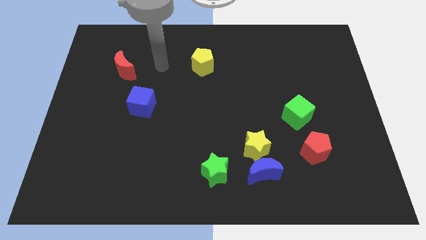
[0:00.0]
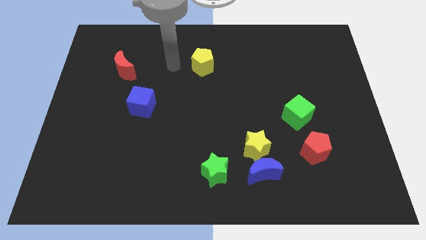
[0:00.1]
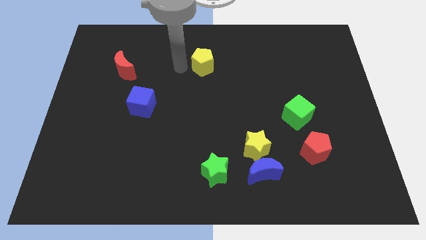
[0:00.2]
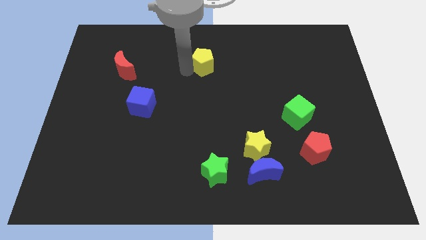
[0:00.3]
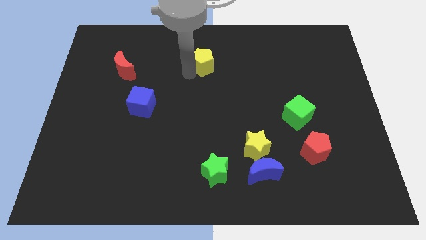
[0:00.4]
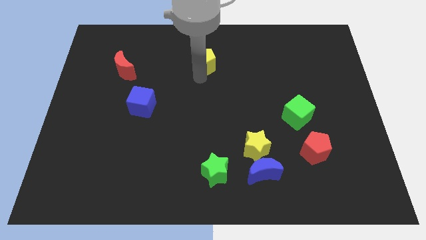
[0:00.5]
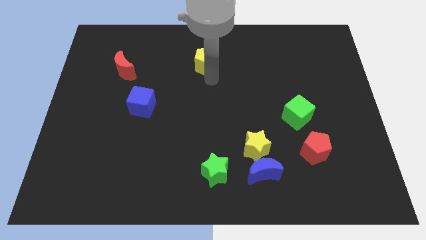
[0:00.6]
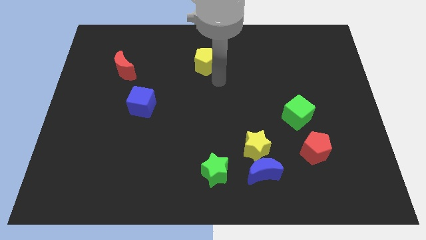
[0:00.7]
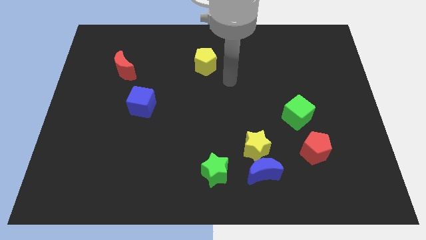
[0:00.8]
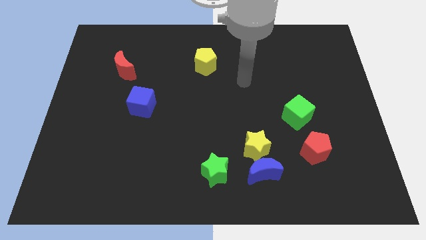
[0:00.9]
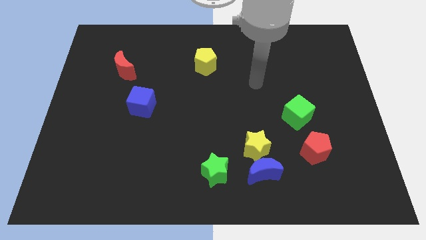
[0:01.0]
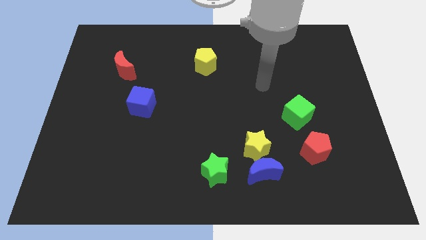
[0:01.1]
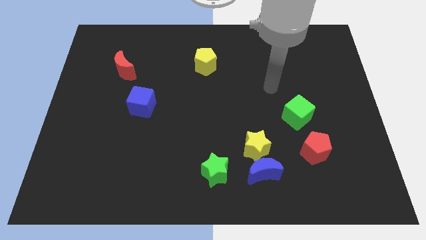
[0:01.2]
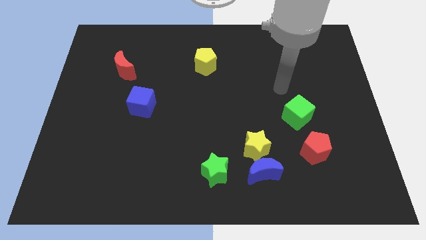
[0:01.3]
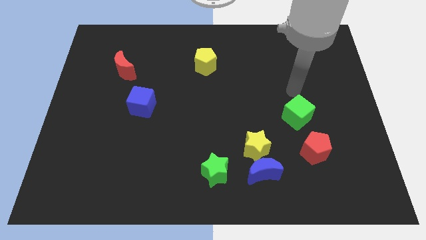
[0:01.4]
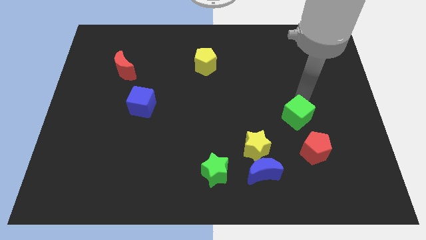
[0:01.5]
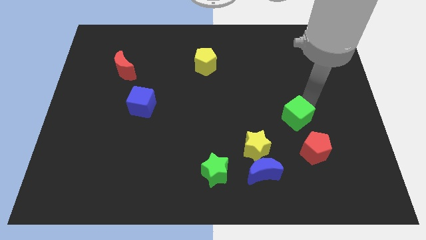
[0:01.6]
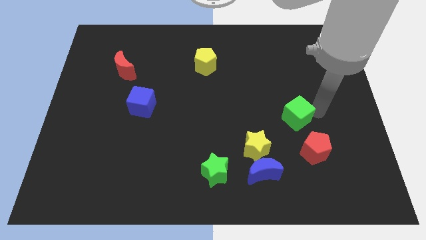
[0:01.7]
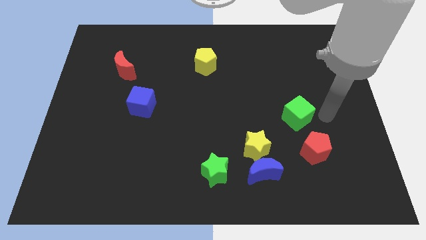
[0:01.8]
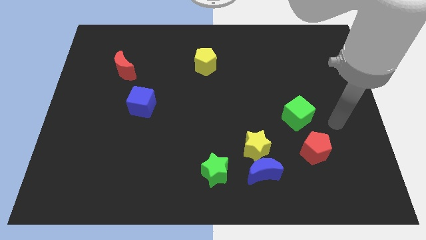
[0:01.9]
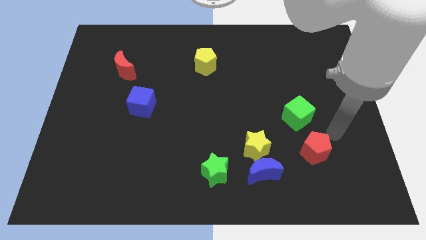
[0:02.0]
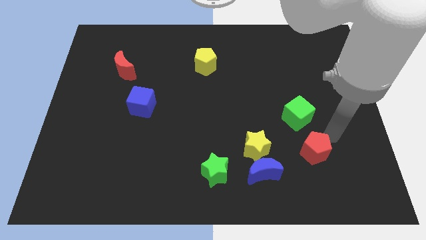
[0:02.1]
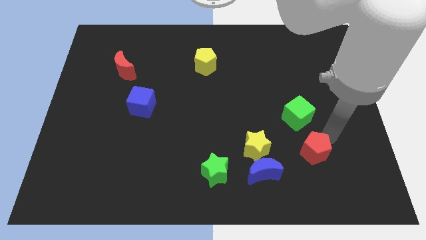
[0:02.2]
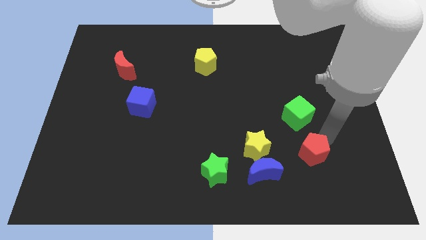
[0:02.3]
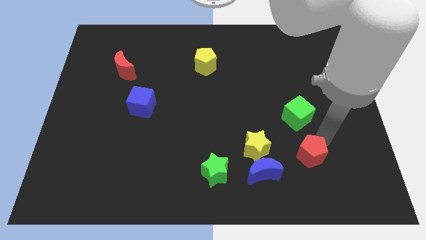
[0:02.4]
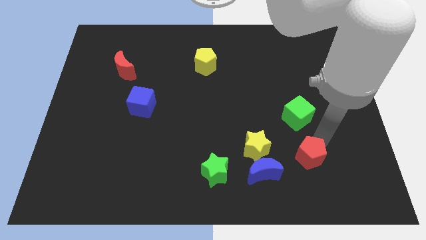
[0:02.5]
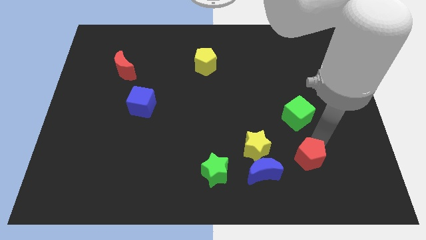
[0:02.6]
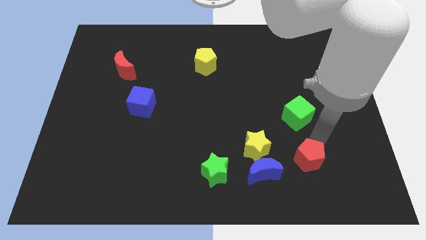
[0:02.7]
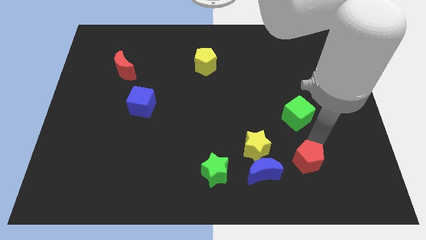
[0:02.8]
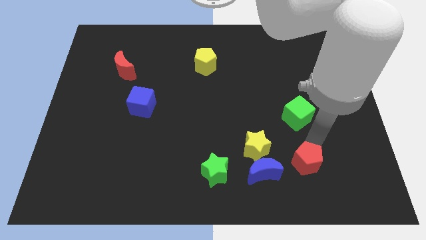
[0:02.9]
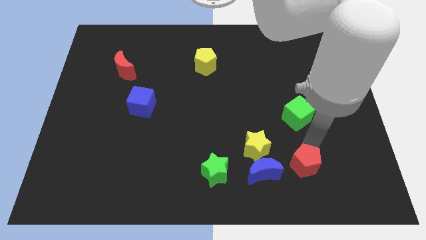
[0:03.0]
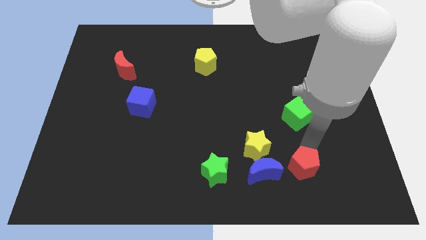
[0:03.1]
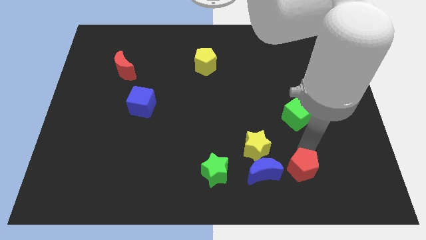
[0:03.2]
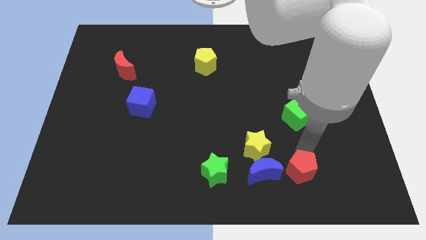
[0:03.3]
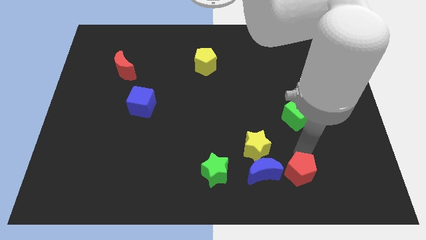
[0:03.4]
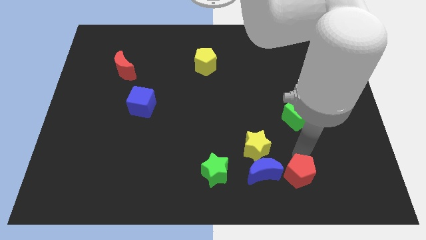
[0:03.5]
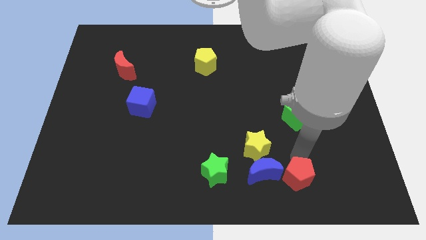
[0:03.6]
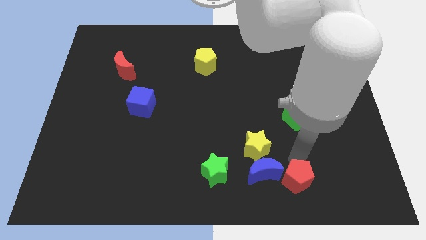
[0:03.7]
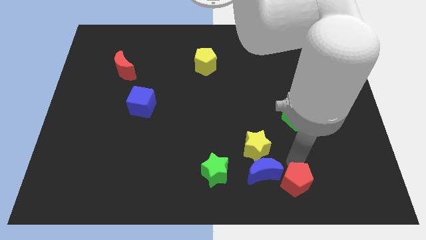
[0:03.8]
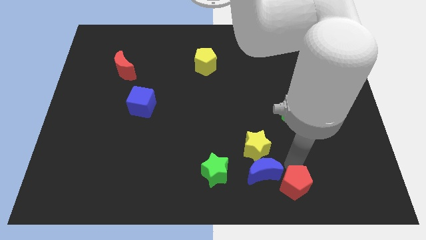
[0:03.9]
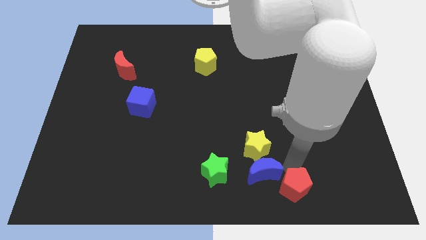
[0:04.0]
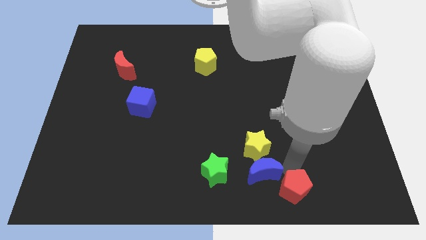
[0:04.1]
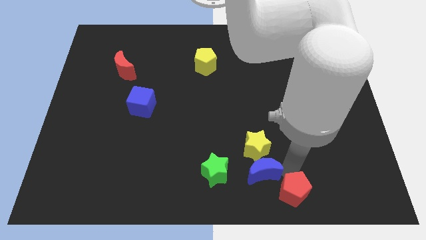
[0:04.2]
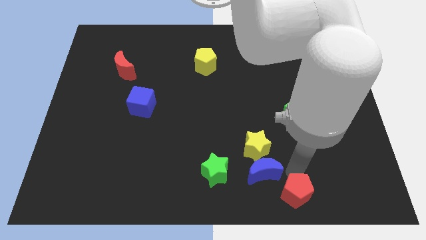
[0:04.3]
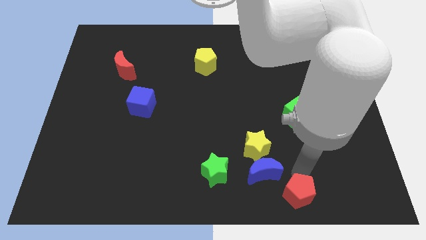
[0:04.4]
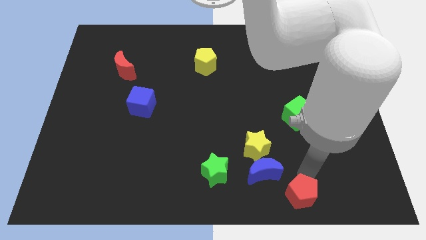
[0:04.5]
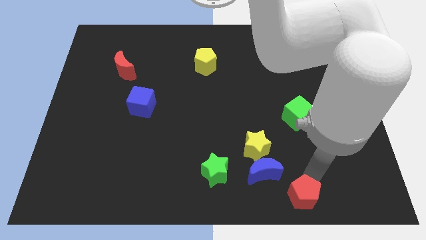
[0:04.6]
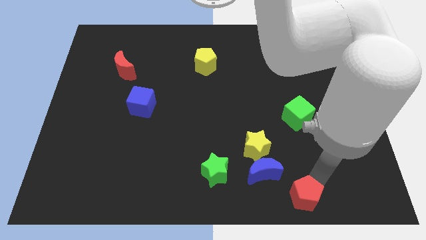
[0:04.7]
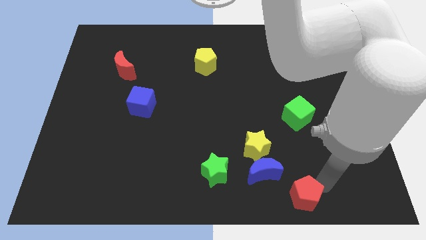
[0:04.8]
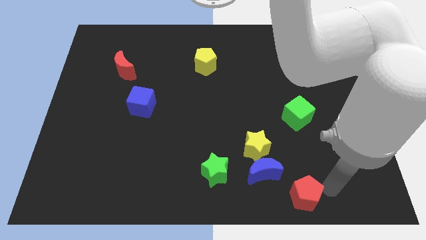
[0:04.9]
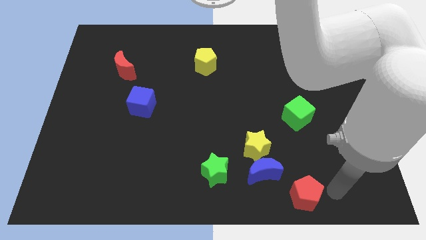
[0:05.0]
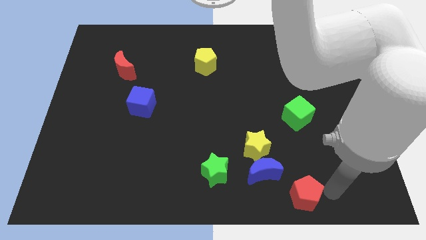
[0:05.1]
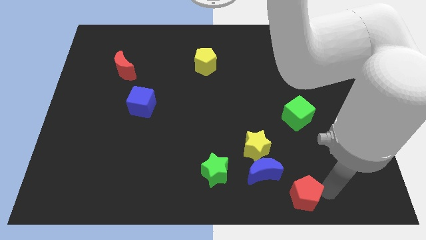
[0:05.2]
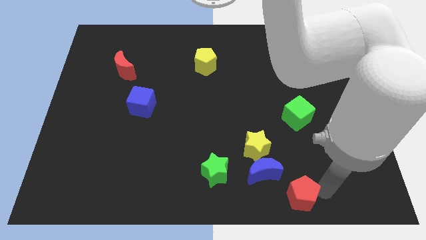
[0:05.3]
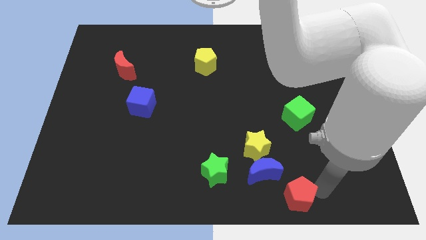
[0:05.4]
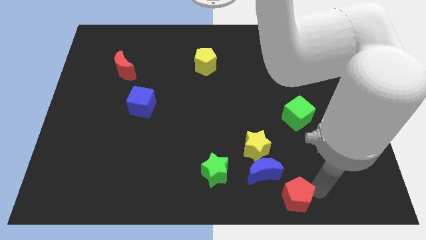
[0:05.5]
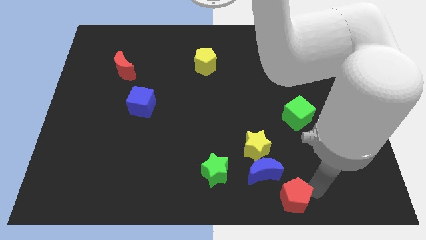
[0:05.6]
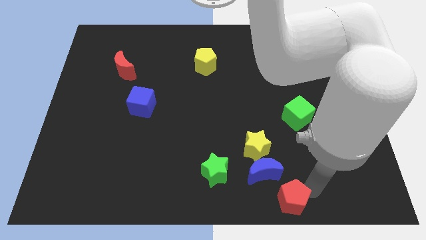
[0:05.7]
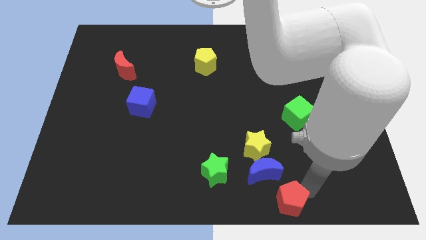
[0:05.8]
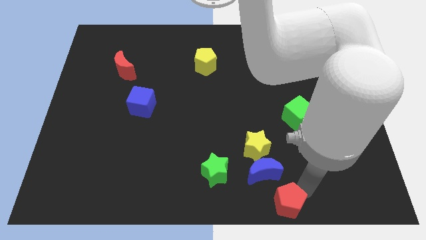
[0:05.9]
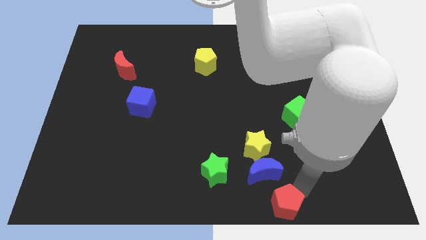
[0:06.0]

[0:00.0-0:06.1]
slide the red pentagon to the bottom
